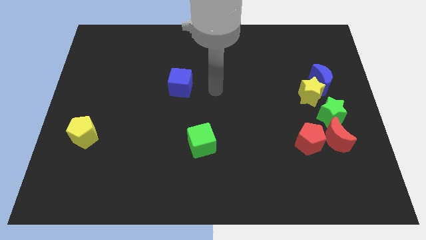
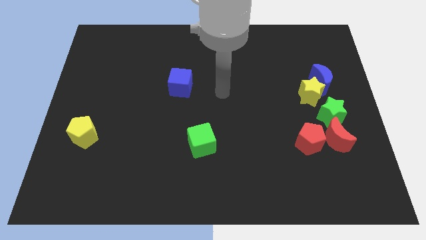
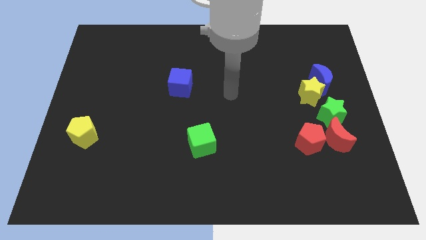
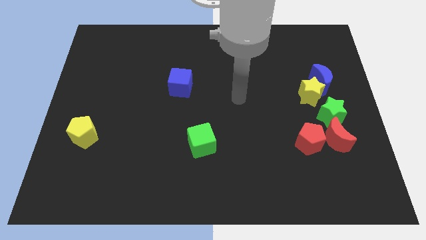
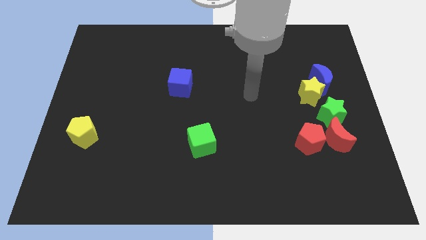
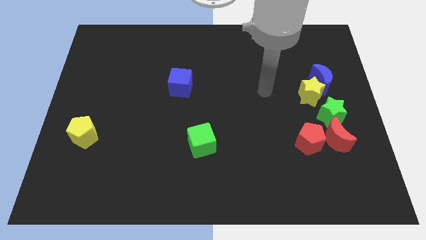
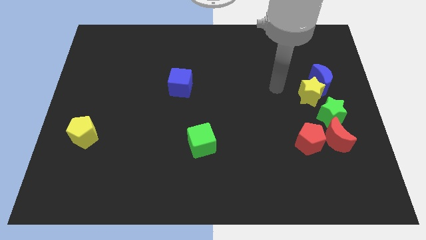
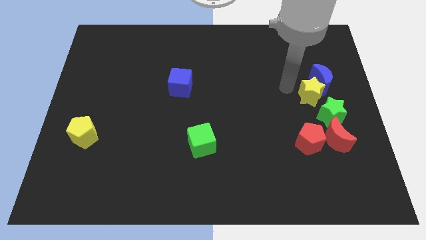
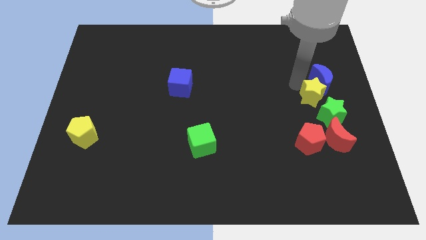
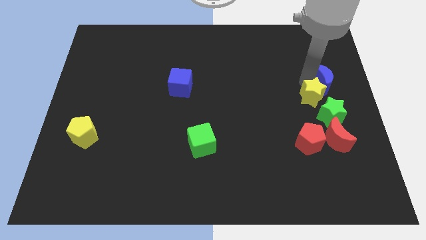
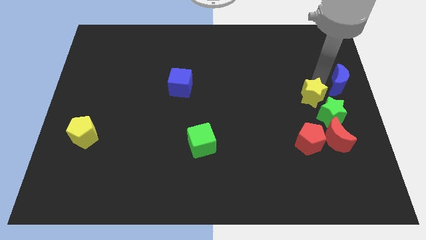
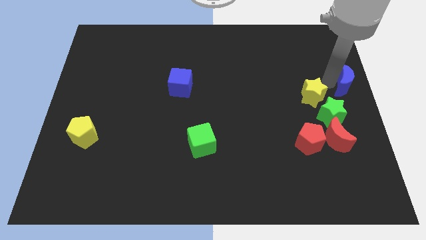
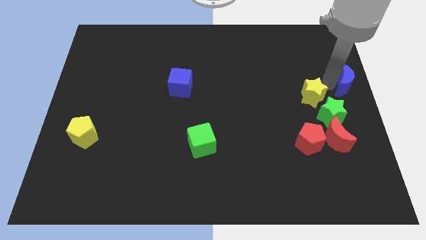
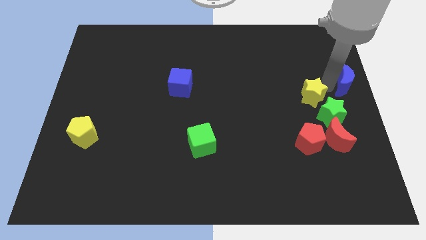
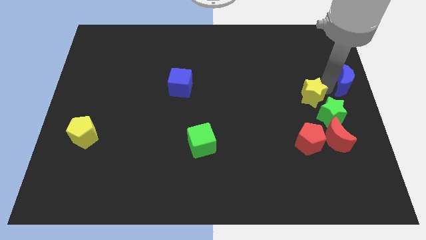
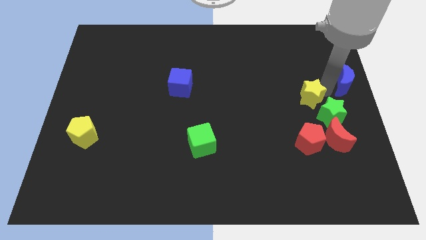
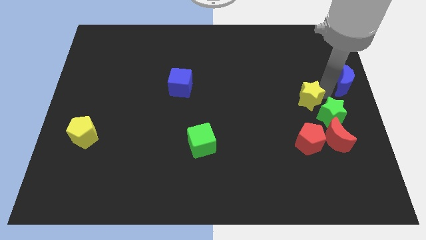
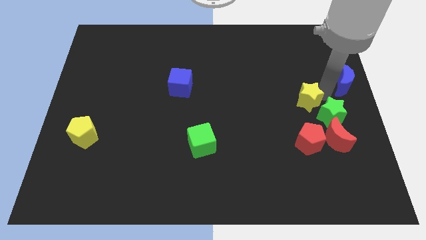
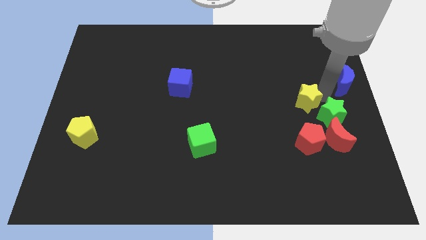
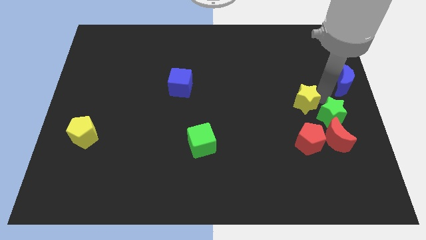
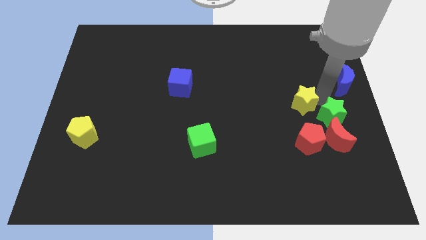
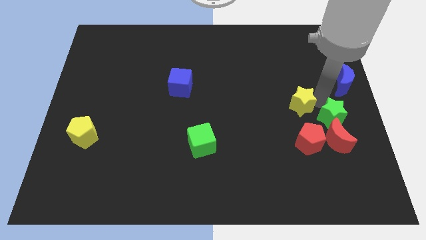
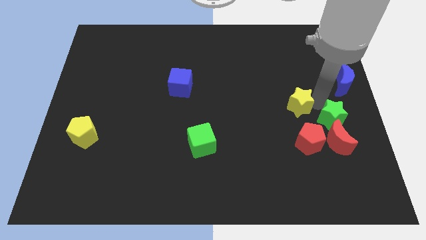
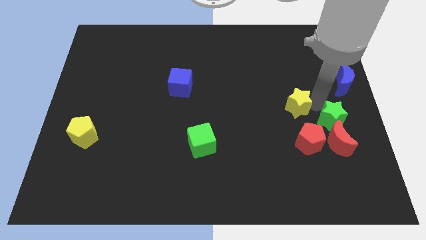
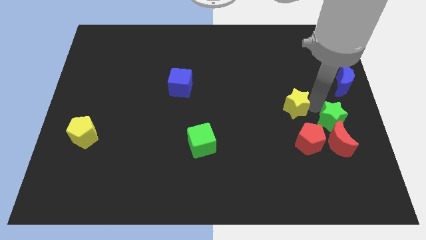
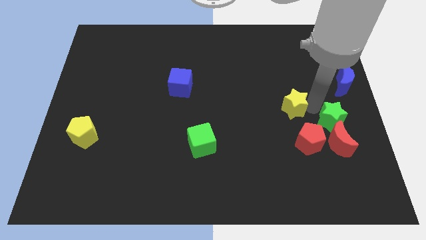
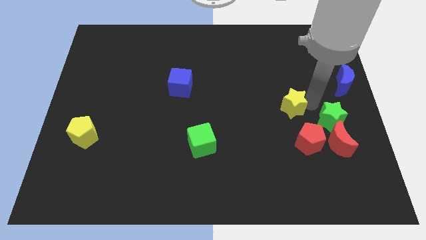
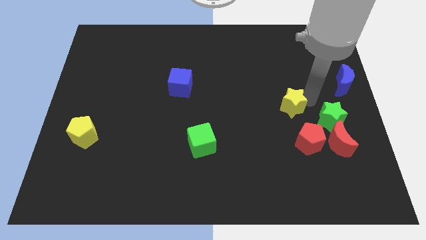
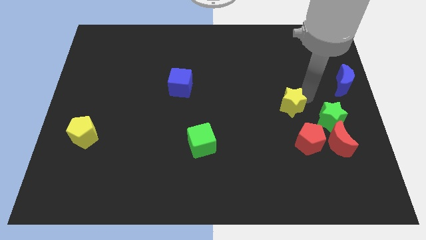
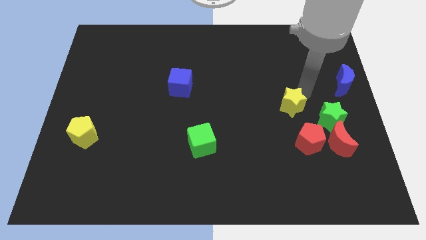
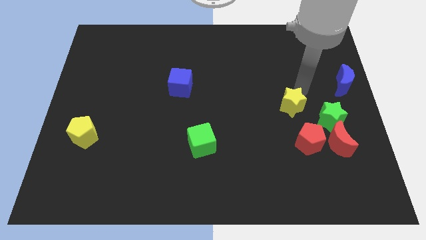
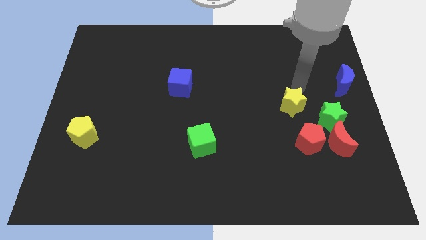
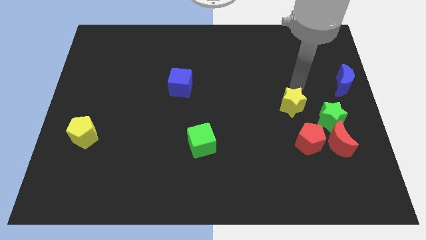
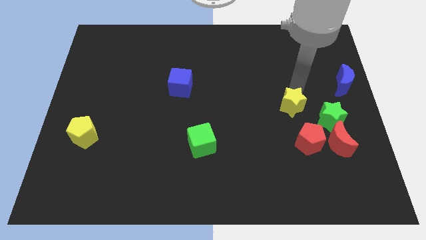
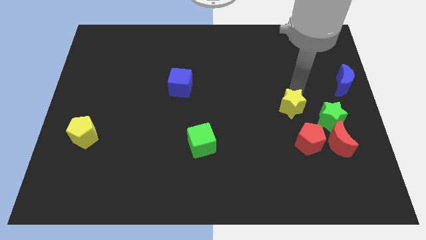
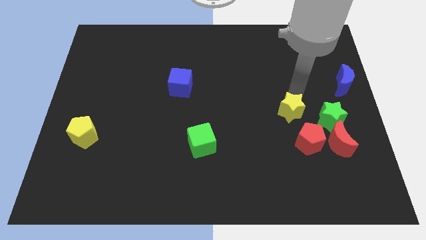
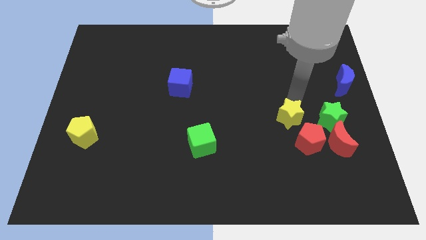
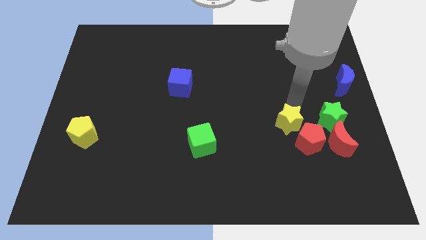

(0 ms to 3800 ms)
push the yellow star downwards a little

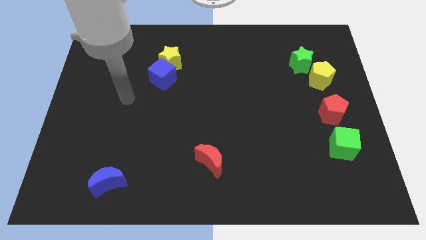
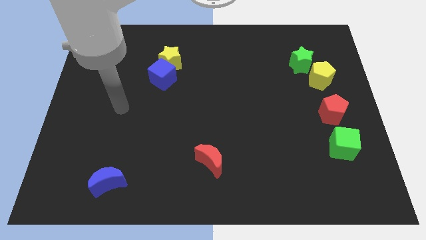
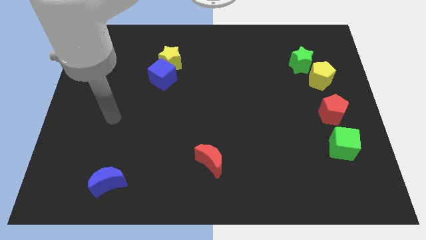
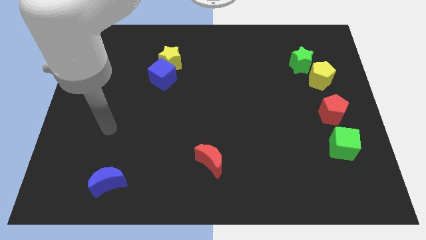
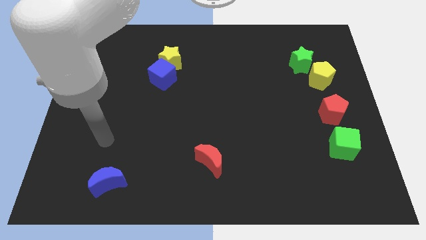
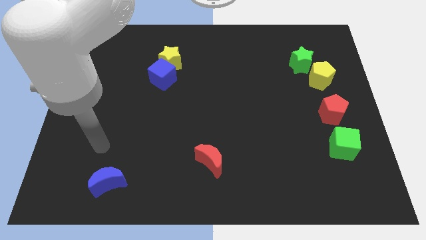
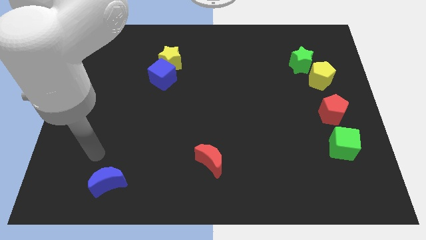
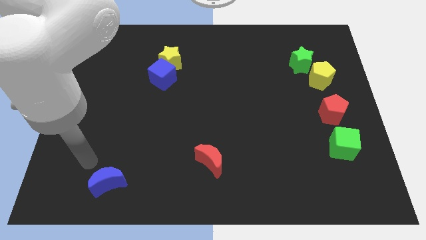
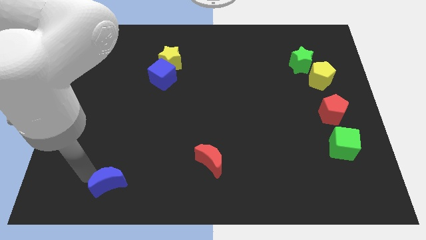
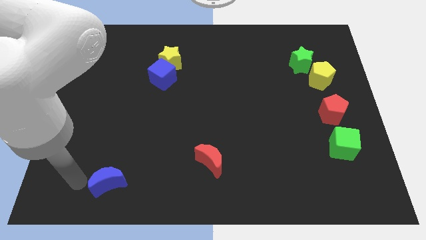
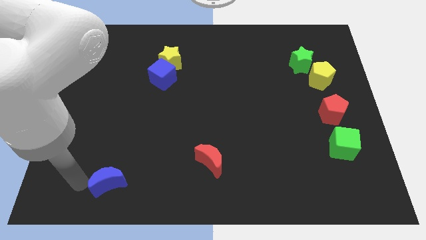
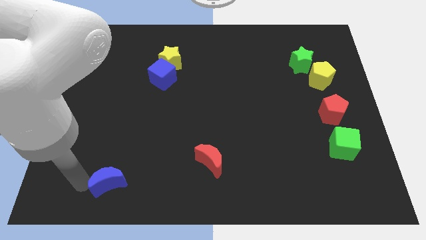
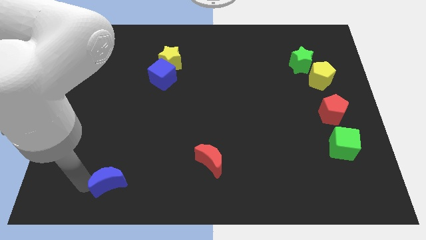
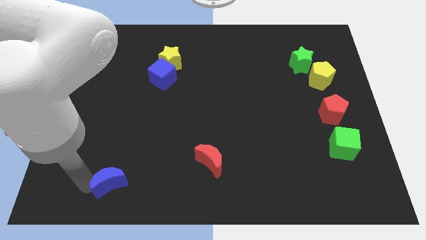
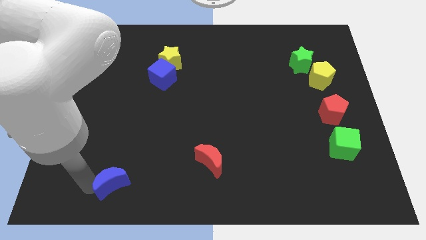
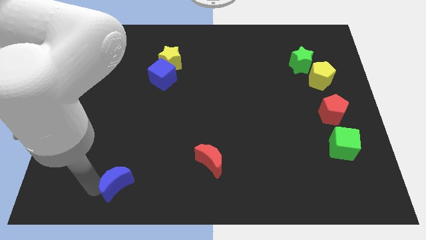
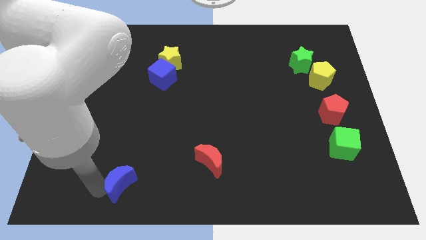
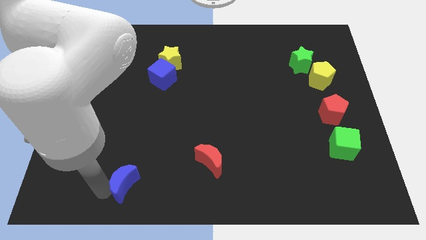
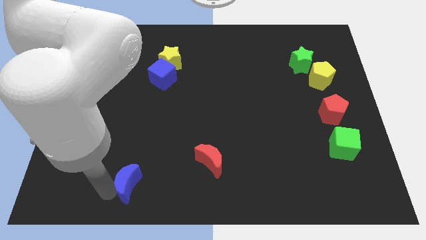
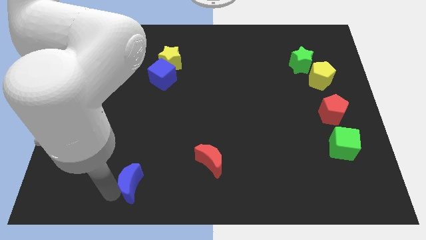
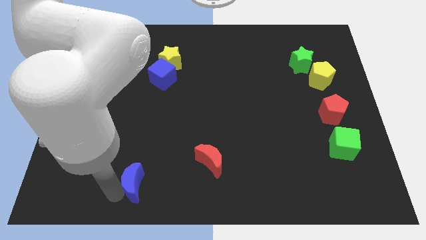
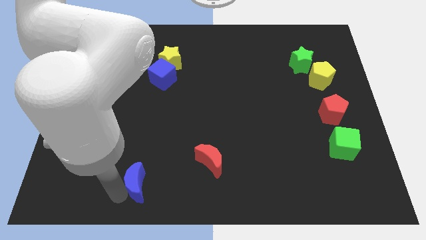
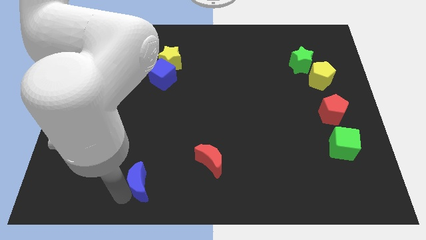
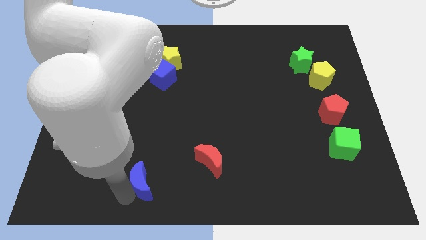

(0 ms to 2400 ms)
slide the blue moon to the right a little

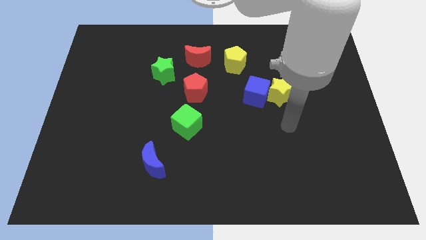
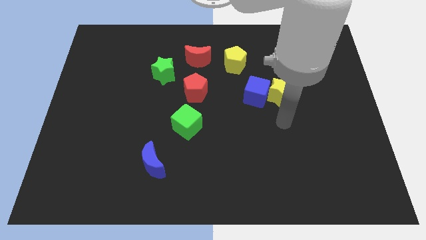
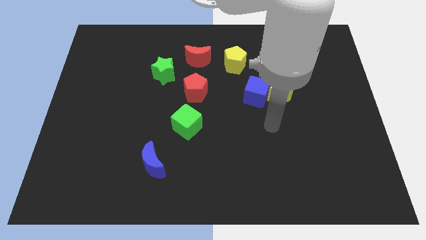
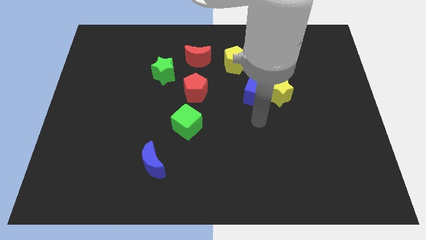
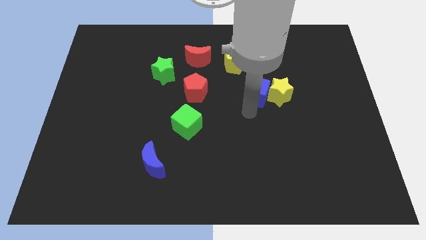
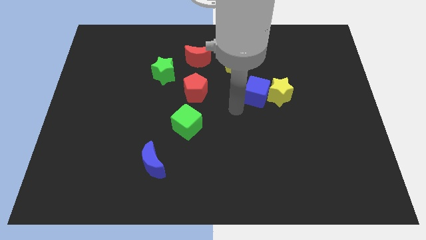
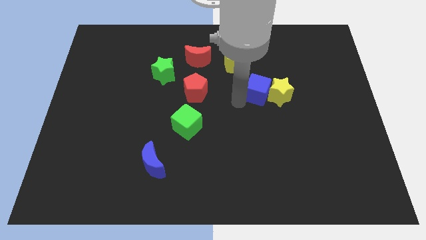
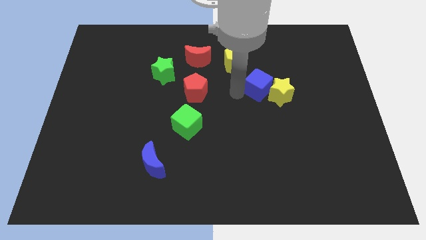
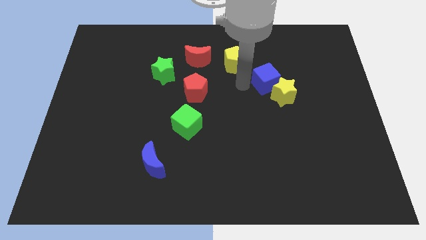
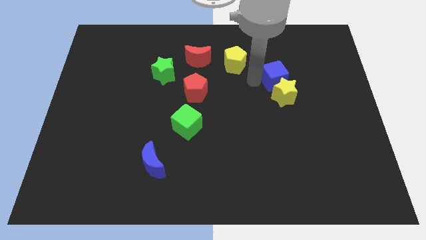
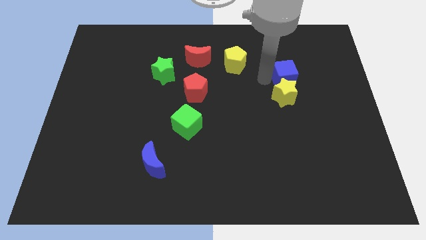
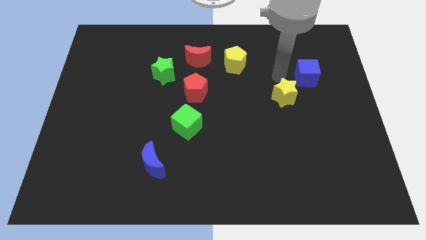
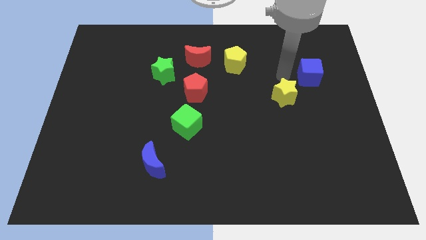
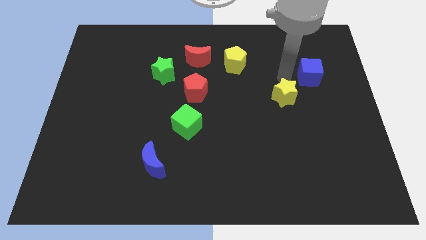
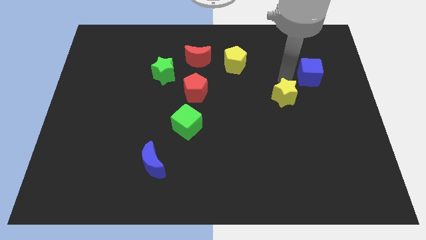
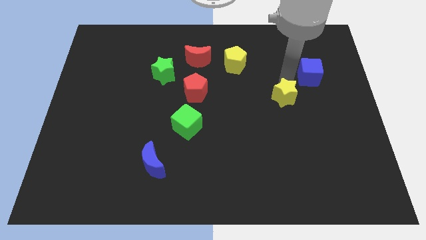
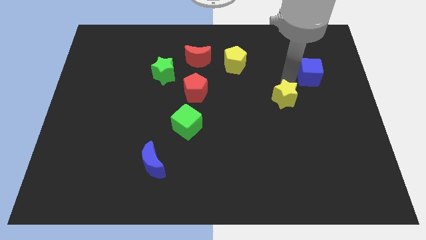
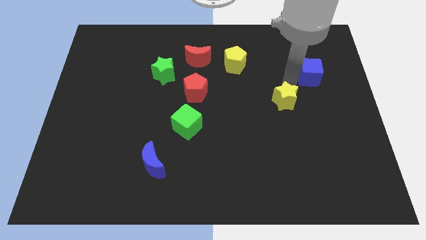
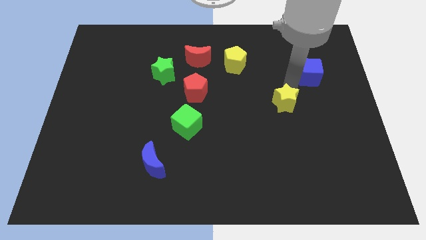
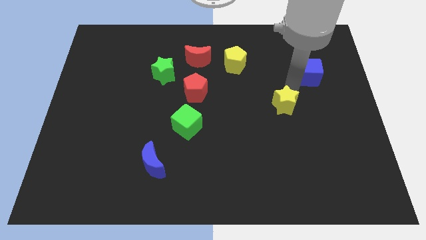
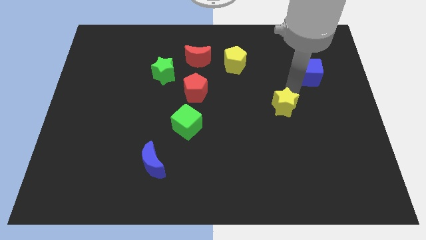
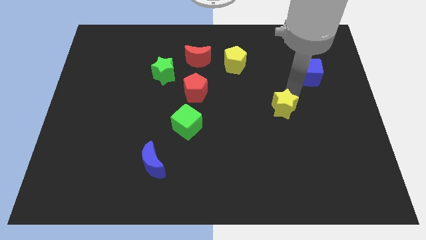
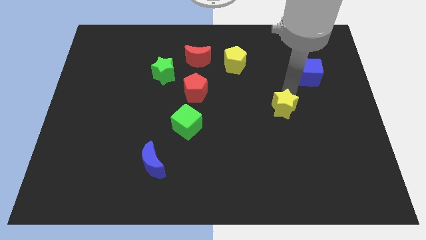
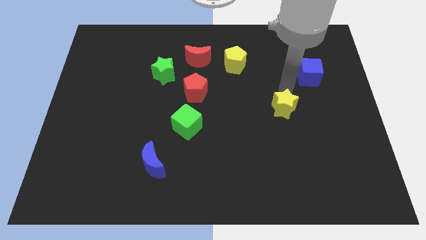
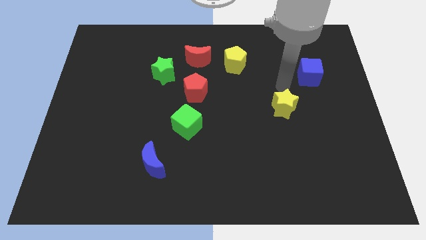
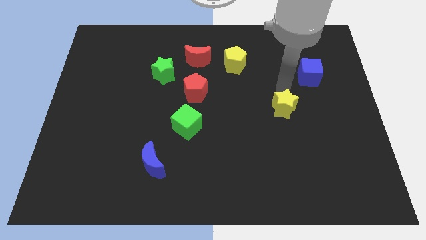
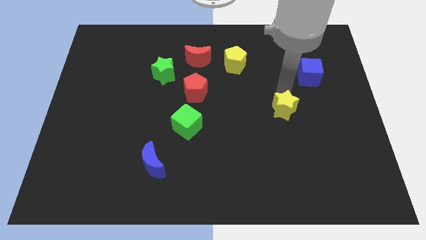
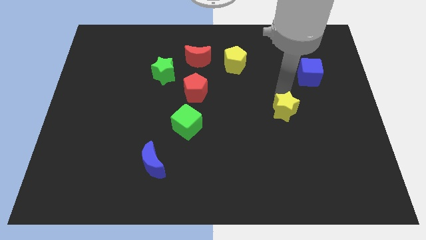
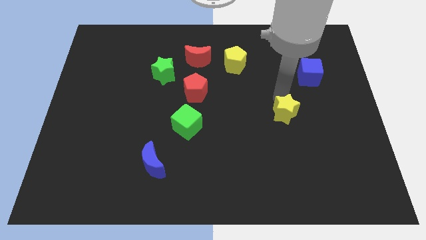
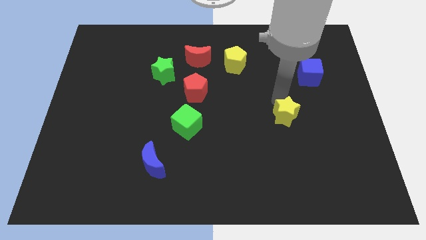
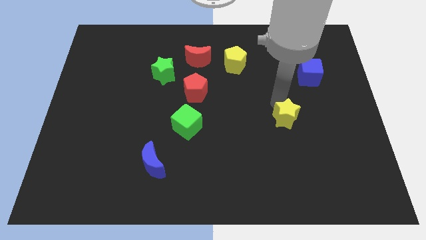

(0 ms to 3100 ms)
slightly move the yellow star down
